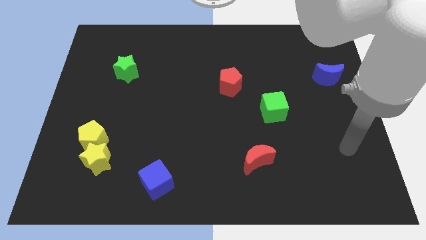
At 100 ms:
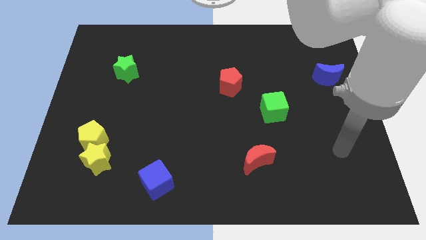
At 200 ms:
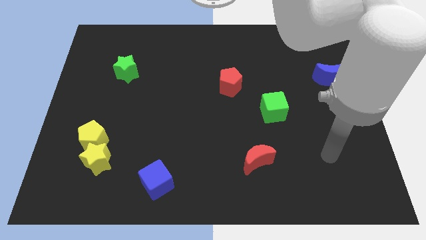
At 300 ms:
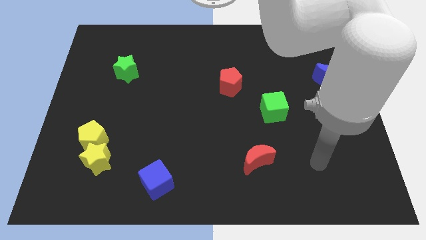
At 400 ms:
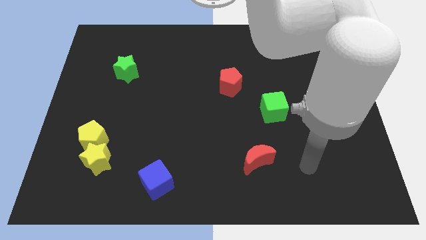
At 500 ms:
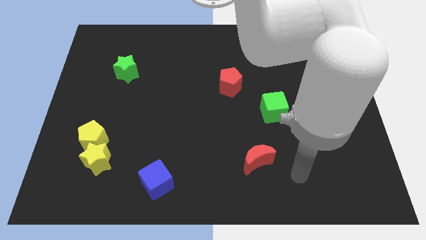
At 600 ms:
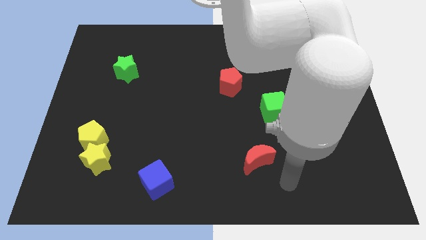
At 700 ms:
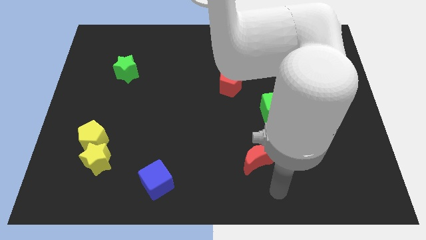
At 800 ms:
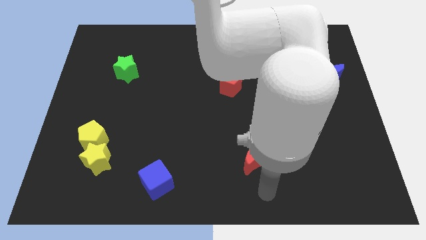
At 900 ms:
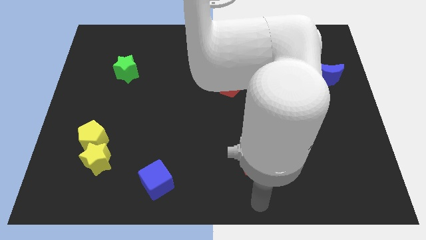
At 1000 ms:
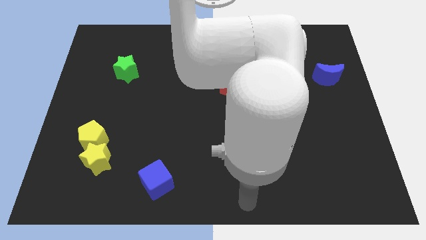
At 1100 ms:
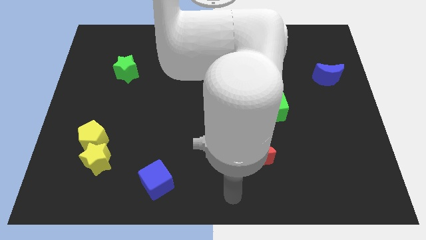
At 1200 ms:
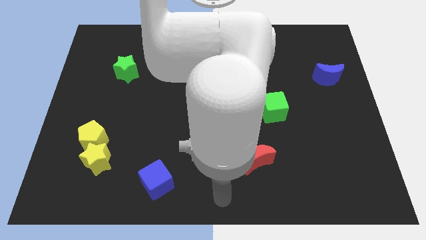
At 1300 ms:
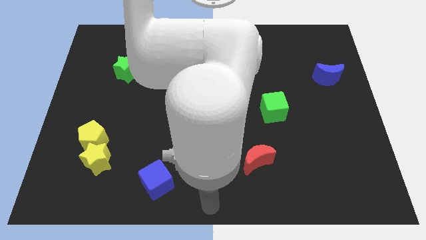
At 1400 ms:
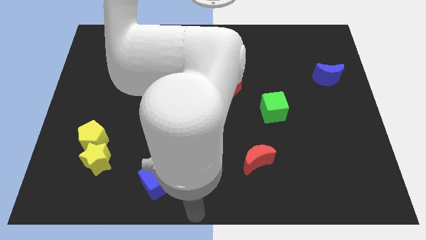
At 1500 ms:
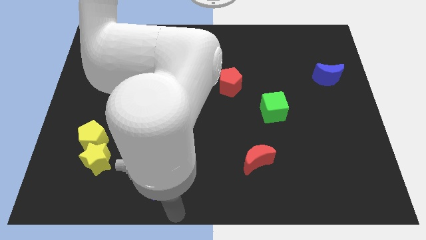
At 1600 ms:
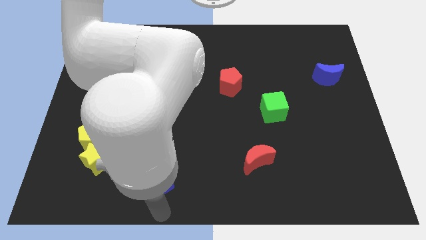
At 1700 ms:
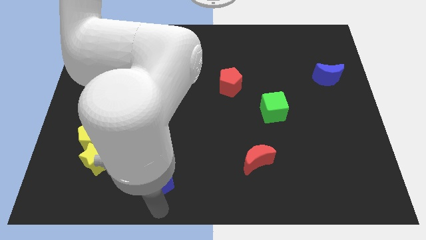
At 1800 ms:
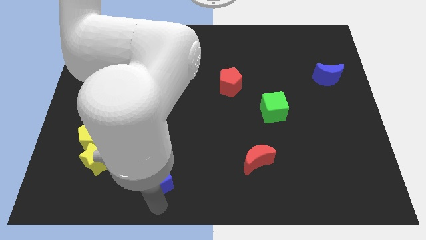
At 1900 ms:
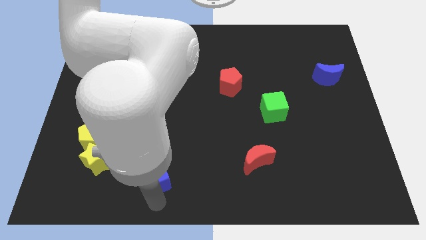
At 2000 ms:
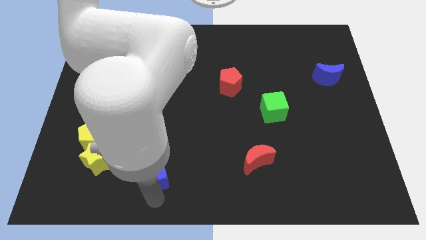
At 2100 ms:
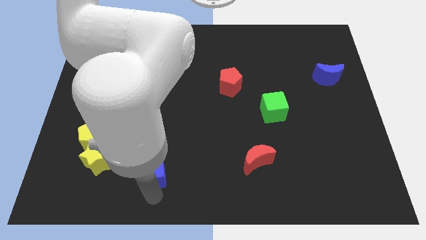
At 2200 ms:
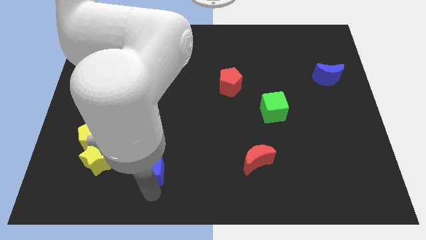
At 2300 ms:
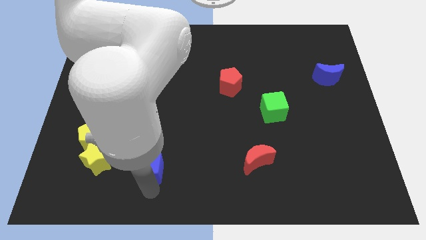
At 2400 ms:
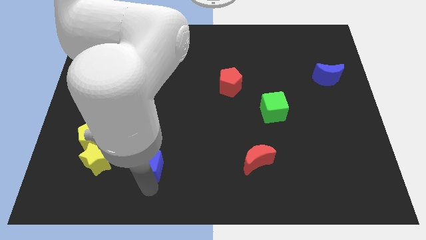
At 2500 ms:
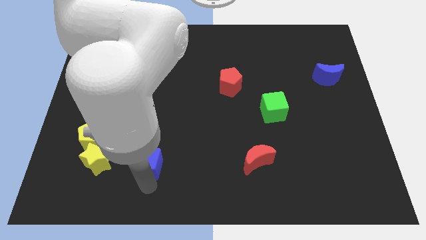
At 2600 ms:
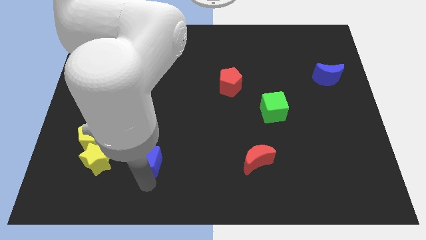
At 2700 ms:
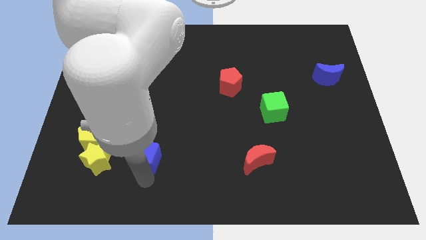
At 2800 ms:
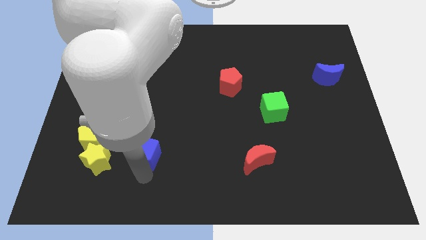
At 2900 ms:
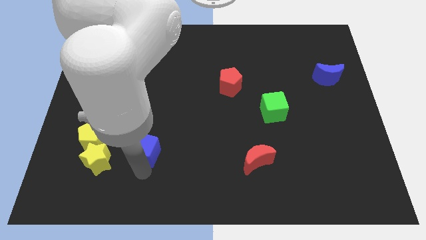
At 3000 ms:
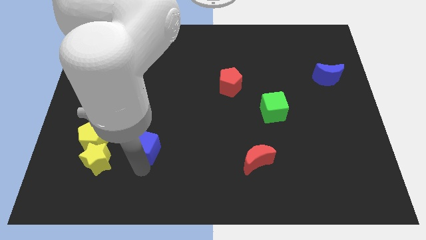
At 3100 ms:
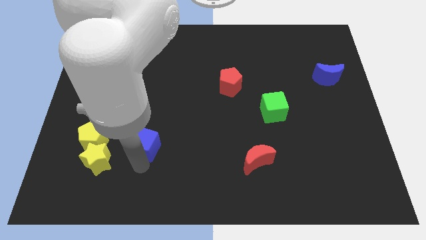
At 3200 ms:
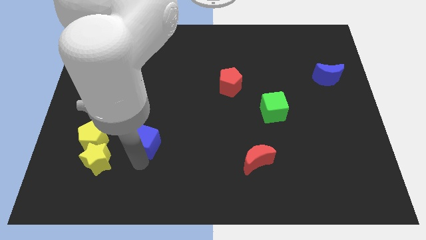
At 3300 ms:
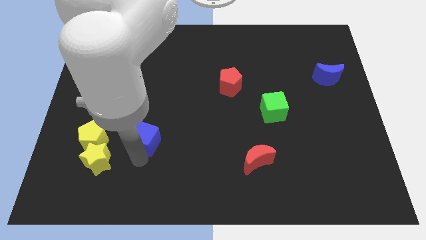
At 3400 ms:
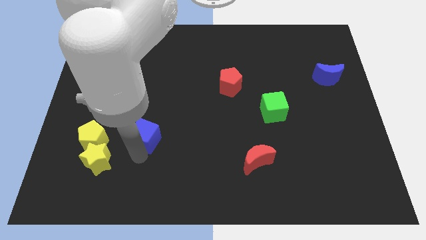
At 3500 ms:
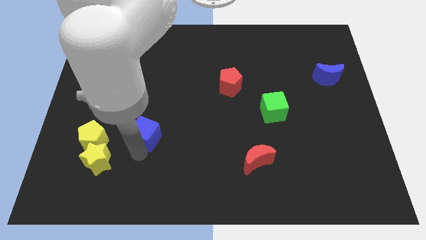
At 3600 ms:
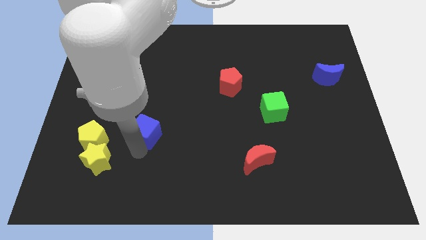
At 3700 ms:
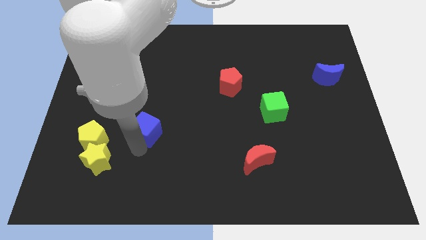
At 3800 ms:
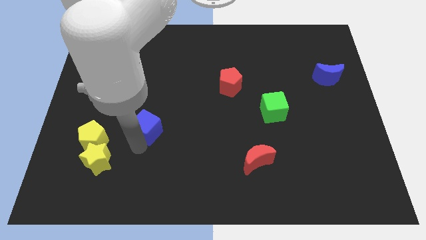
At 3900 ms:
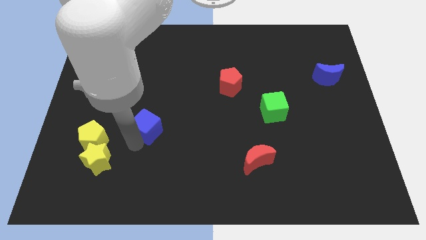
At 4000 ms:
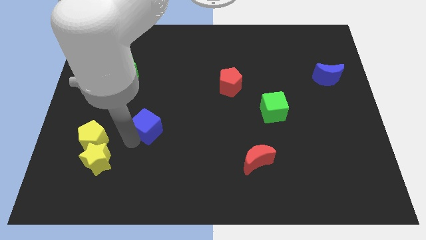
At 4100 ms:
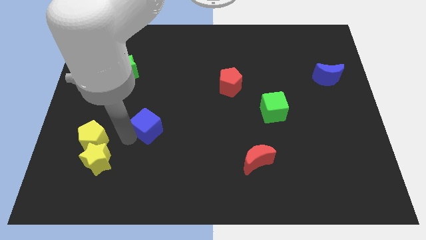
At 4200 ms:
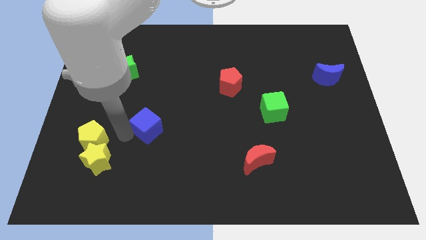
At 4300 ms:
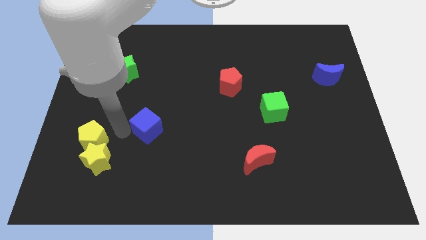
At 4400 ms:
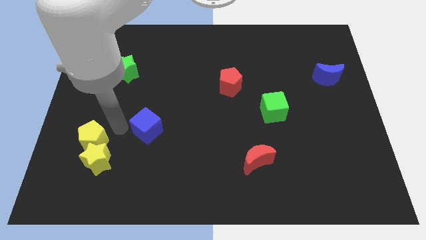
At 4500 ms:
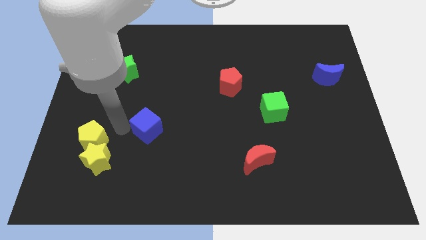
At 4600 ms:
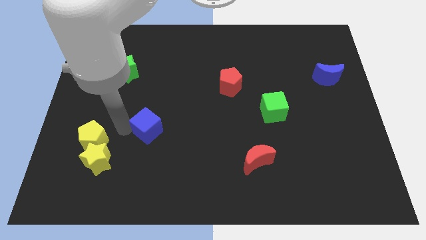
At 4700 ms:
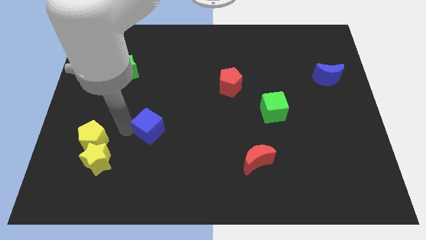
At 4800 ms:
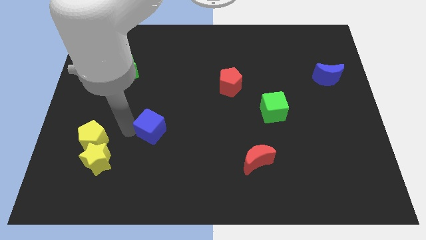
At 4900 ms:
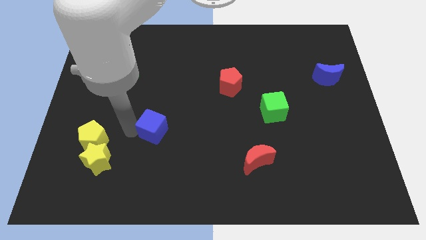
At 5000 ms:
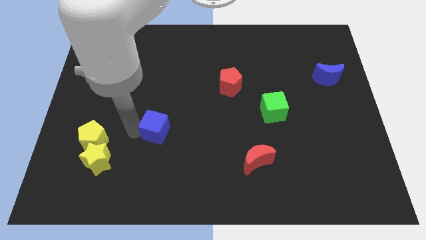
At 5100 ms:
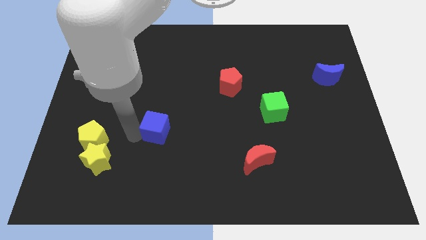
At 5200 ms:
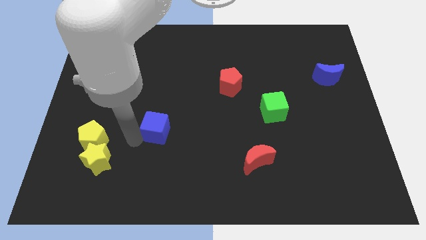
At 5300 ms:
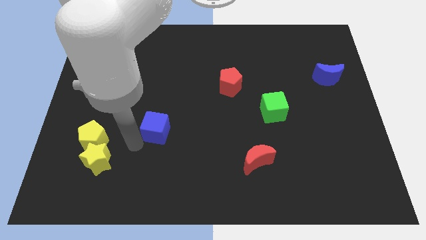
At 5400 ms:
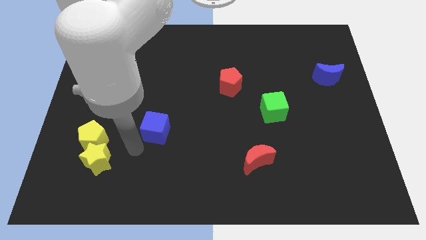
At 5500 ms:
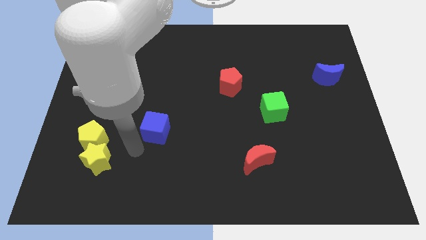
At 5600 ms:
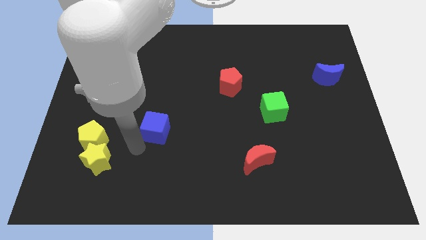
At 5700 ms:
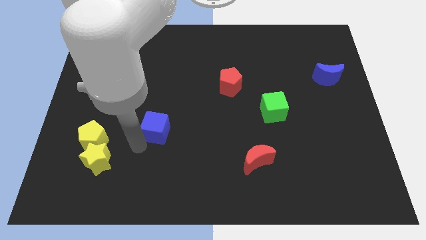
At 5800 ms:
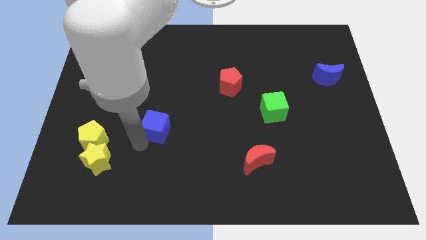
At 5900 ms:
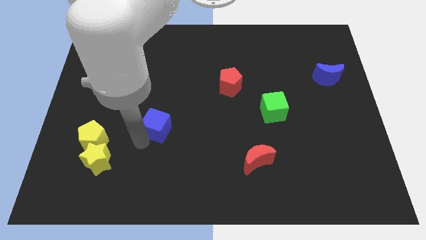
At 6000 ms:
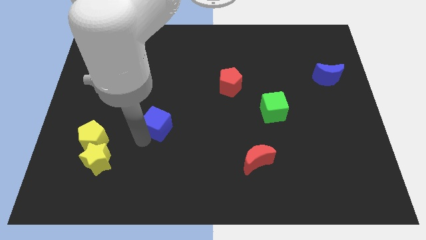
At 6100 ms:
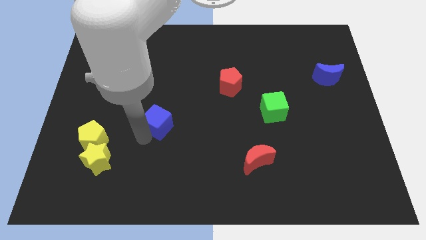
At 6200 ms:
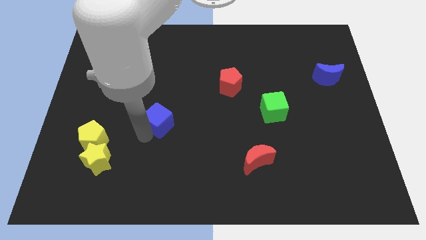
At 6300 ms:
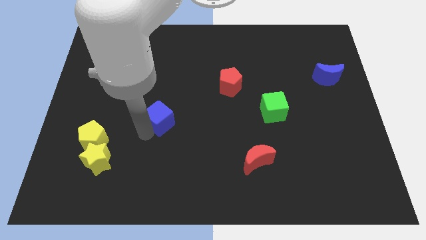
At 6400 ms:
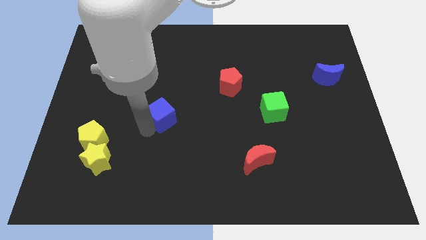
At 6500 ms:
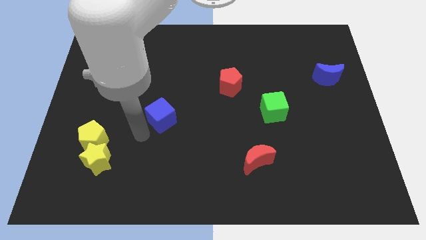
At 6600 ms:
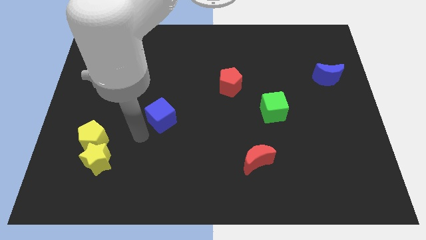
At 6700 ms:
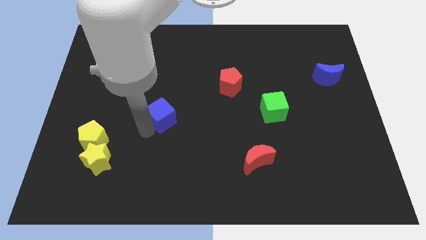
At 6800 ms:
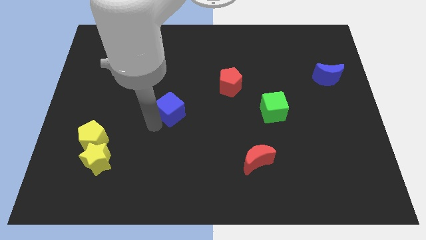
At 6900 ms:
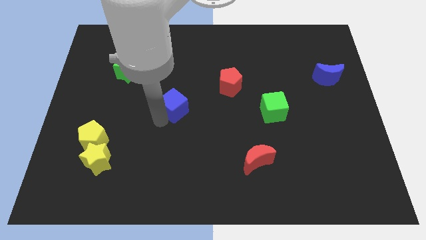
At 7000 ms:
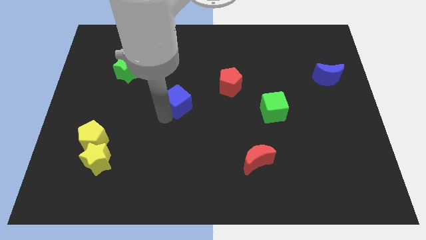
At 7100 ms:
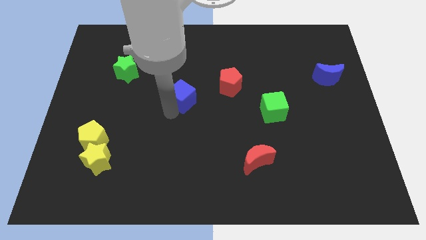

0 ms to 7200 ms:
move the blue cube left of the red pentagon
